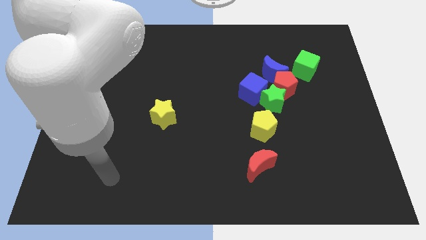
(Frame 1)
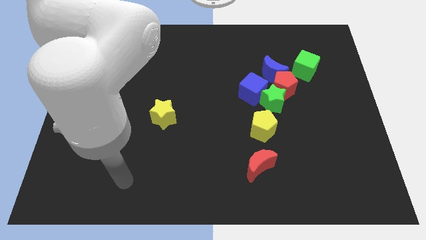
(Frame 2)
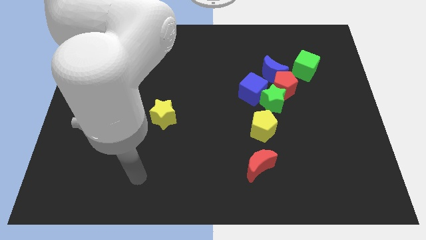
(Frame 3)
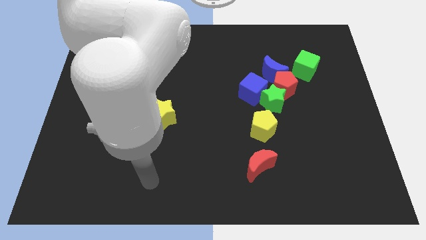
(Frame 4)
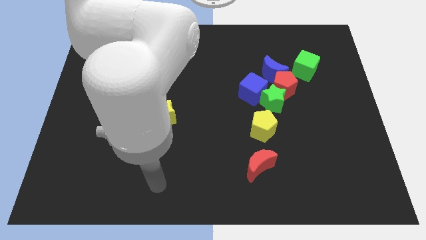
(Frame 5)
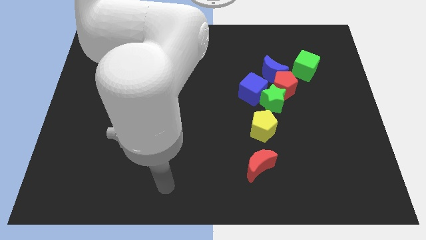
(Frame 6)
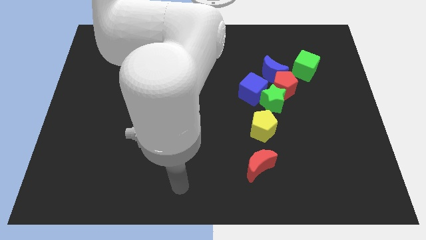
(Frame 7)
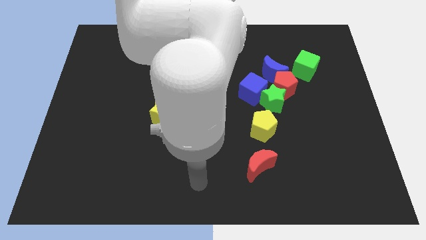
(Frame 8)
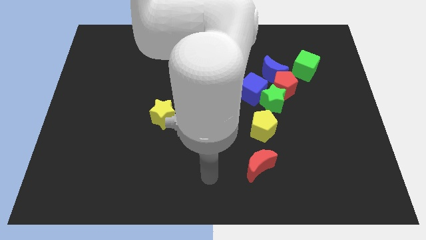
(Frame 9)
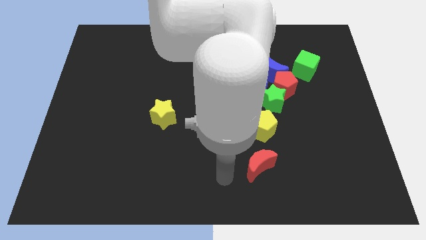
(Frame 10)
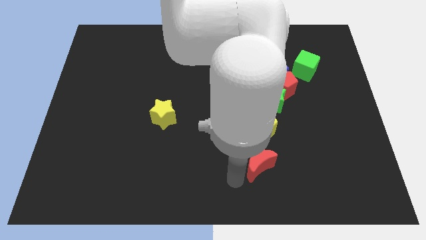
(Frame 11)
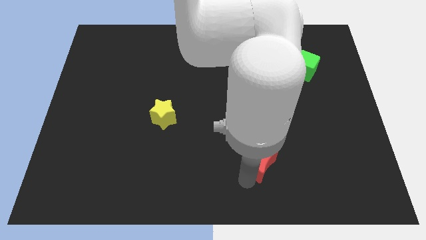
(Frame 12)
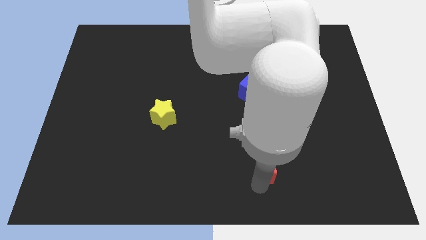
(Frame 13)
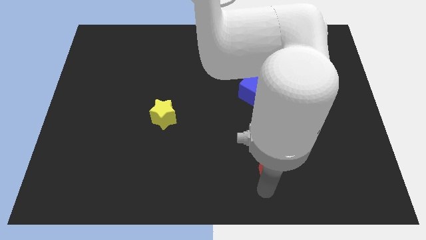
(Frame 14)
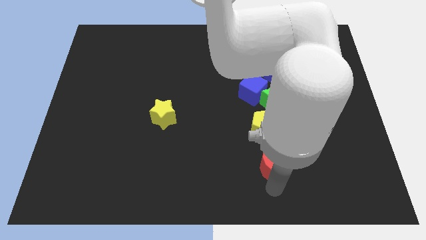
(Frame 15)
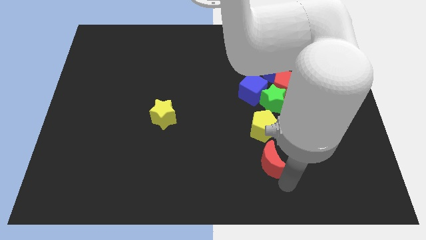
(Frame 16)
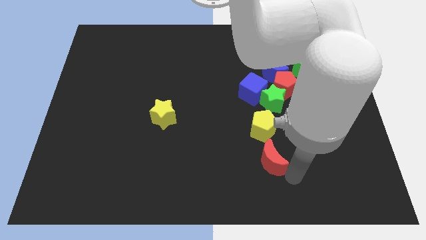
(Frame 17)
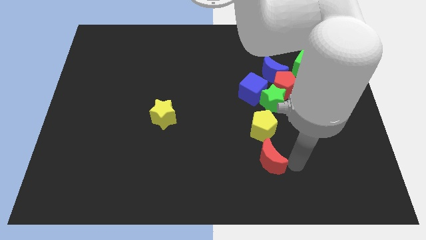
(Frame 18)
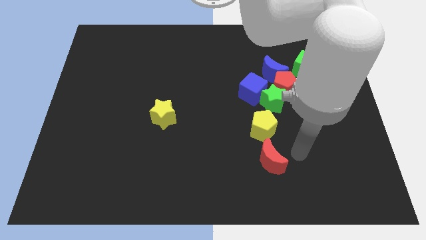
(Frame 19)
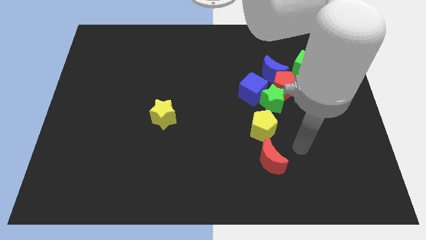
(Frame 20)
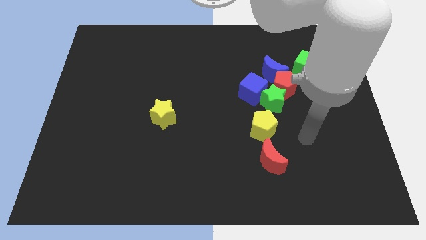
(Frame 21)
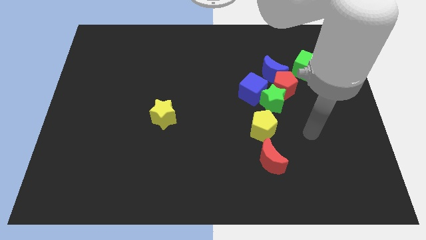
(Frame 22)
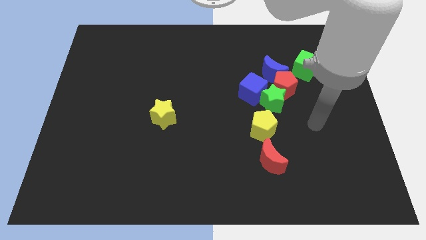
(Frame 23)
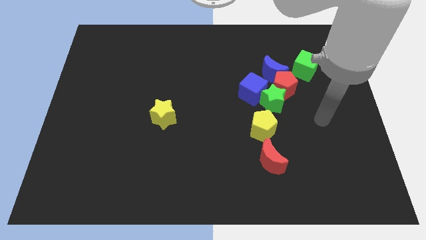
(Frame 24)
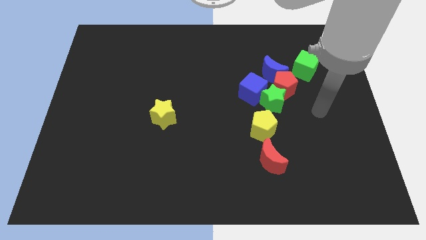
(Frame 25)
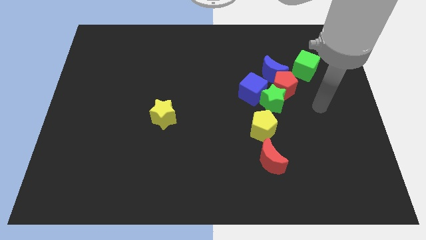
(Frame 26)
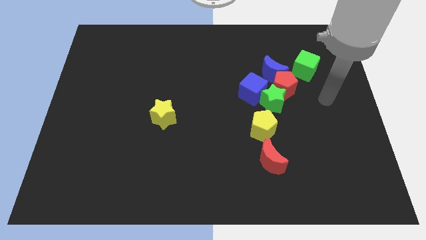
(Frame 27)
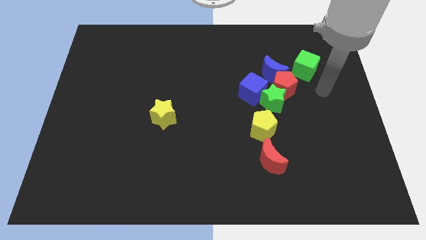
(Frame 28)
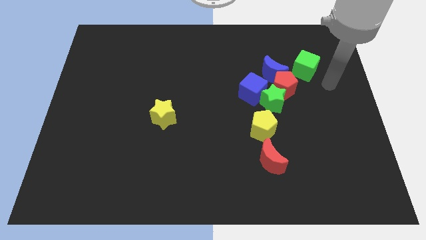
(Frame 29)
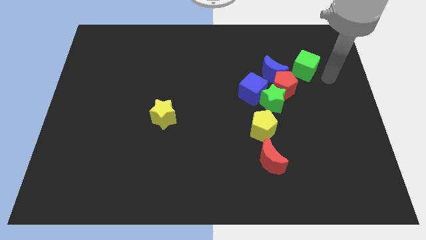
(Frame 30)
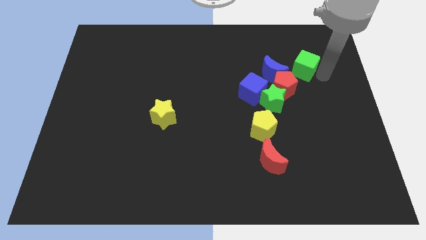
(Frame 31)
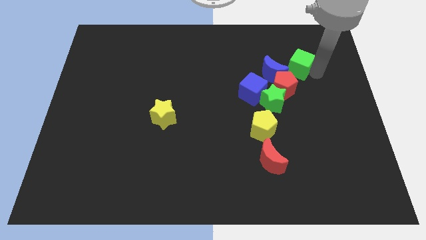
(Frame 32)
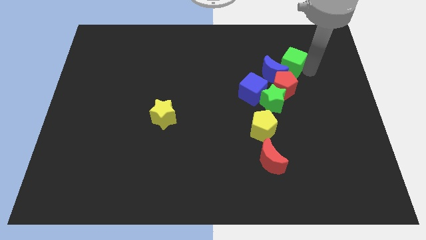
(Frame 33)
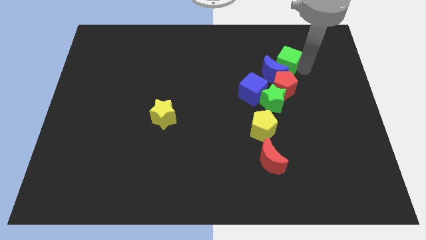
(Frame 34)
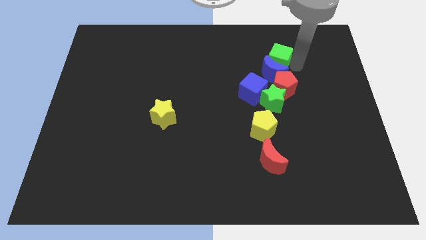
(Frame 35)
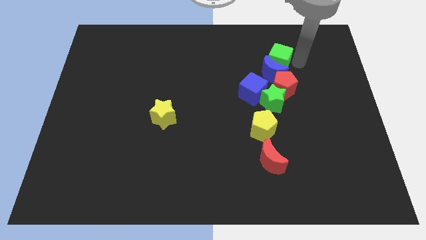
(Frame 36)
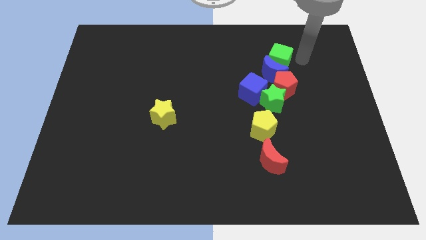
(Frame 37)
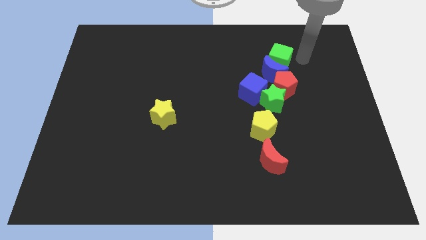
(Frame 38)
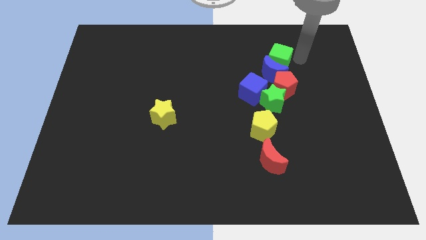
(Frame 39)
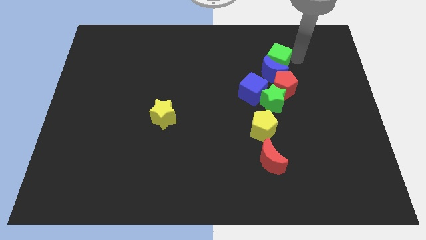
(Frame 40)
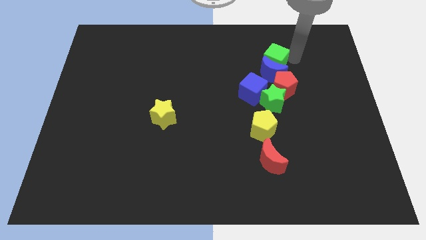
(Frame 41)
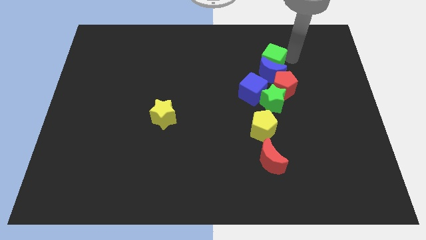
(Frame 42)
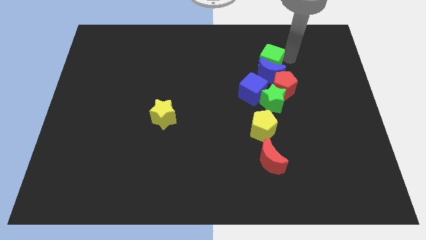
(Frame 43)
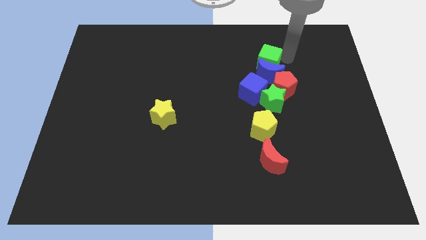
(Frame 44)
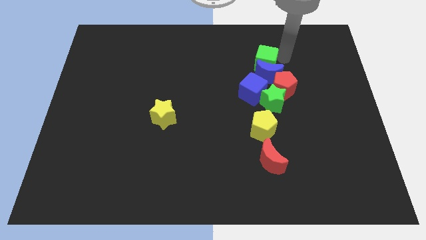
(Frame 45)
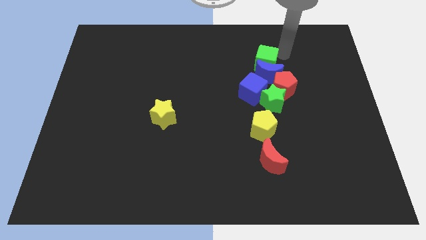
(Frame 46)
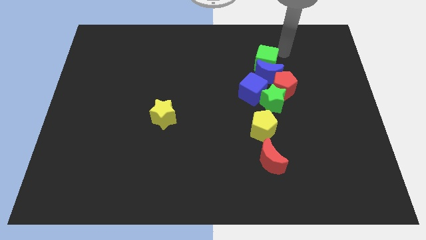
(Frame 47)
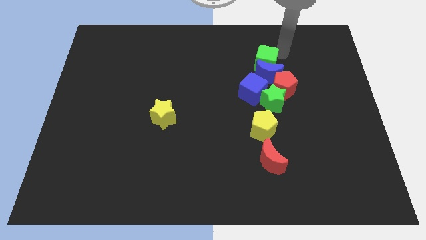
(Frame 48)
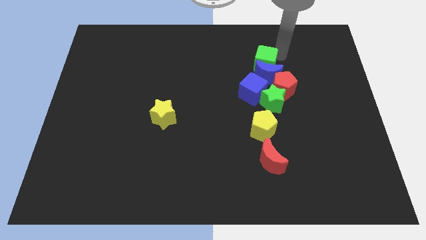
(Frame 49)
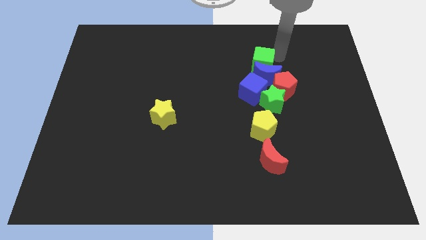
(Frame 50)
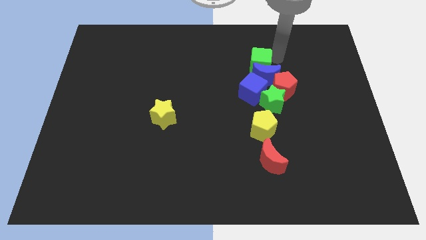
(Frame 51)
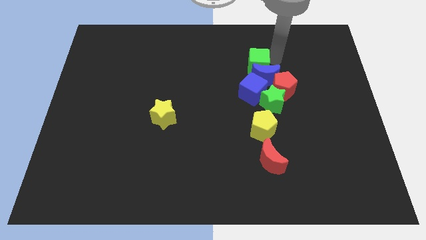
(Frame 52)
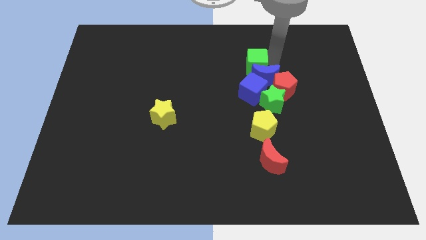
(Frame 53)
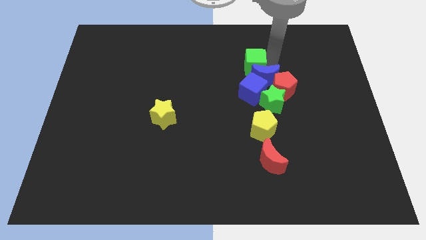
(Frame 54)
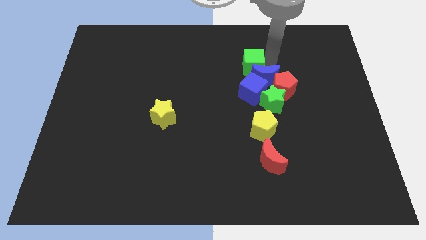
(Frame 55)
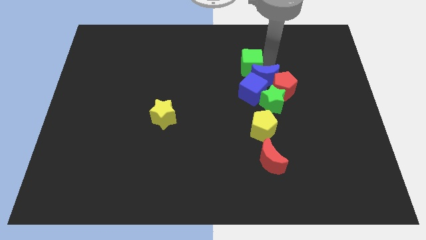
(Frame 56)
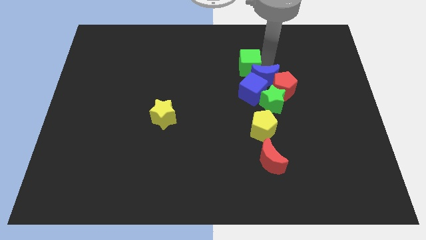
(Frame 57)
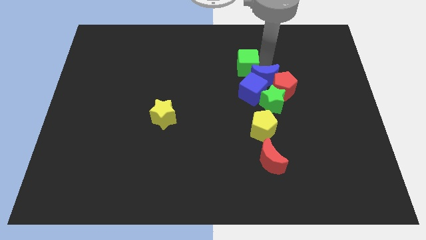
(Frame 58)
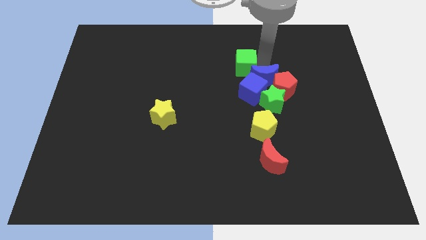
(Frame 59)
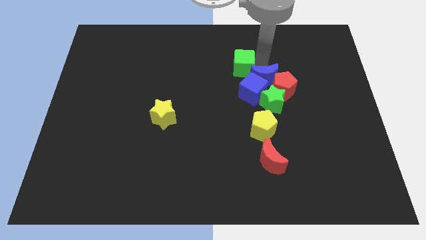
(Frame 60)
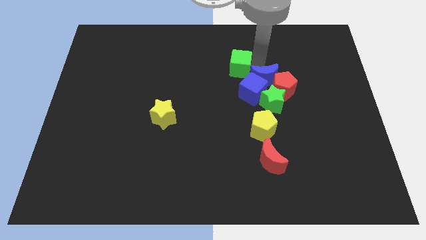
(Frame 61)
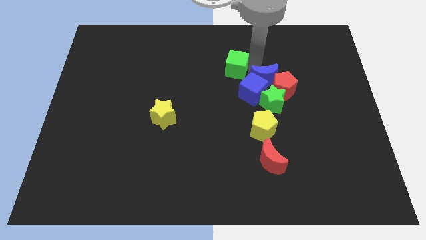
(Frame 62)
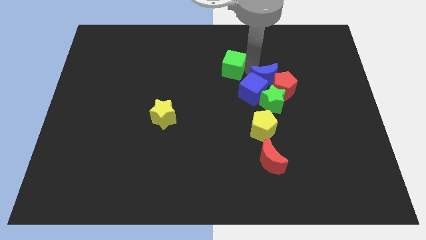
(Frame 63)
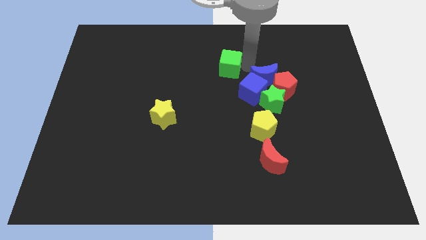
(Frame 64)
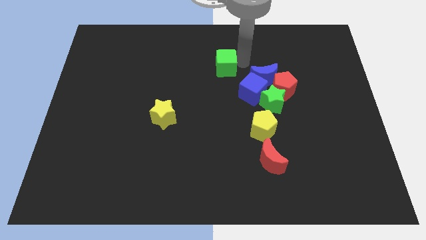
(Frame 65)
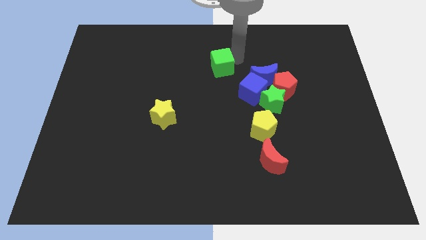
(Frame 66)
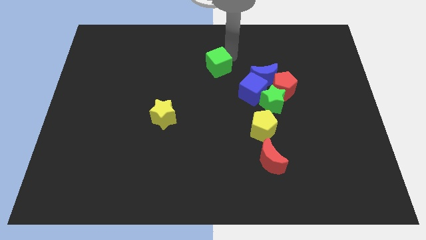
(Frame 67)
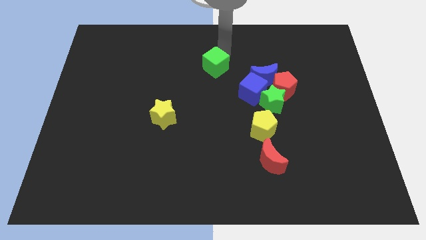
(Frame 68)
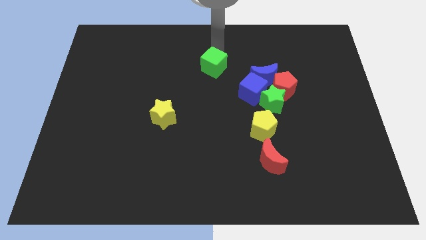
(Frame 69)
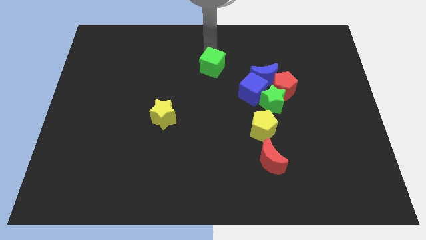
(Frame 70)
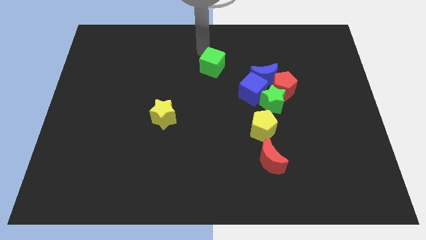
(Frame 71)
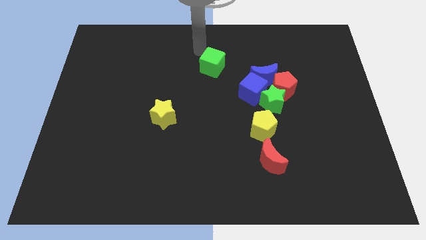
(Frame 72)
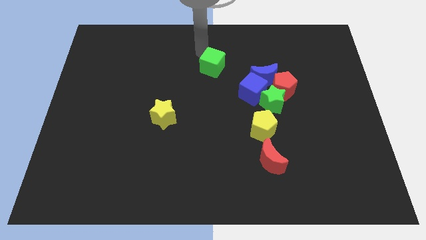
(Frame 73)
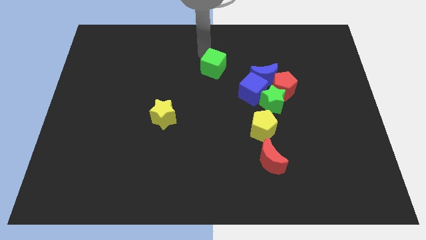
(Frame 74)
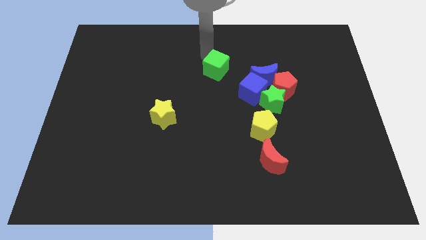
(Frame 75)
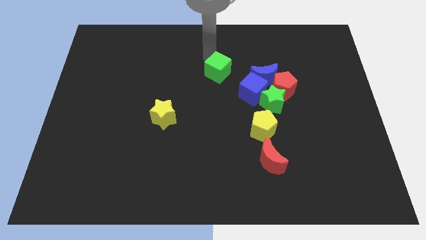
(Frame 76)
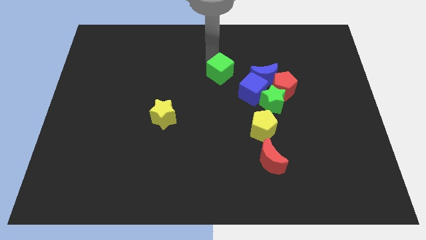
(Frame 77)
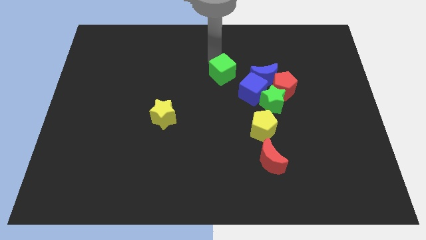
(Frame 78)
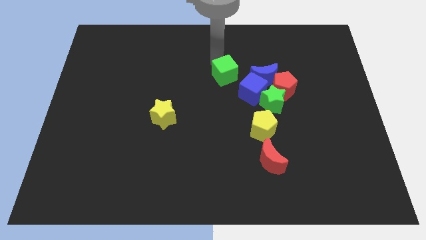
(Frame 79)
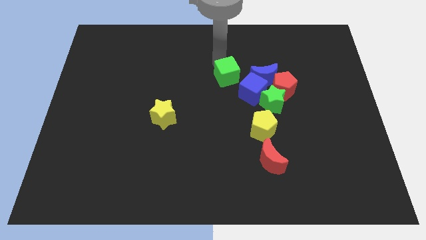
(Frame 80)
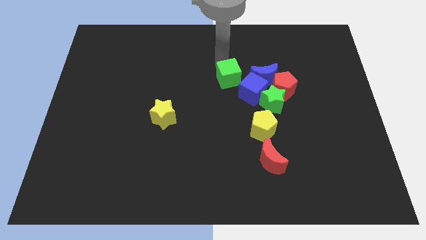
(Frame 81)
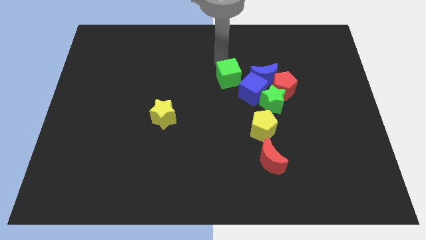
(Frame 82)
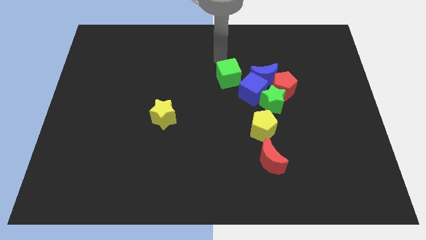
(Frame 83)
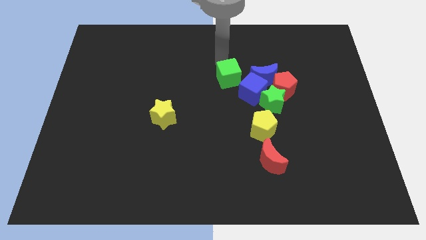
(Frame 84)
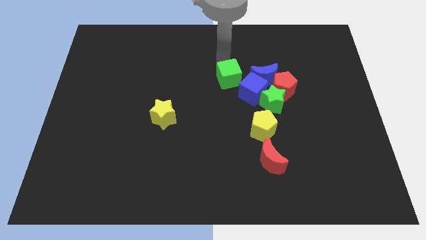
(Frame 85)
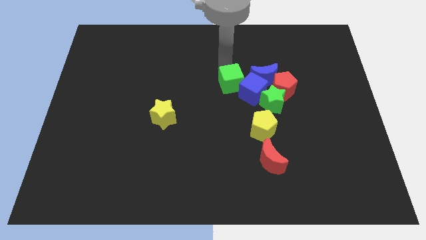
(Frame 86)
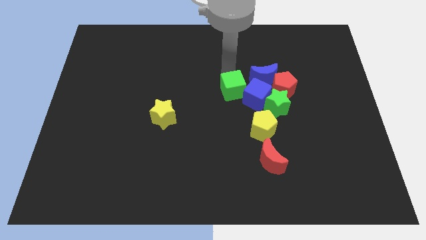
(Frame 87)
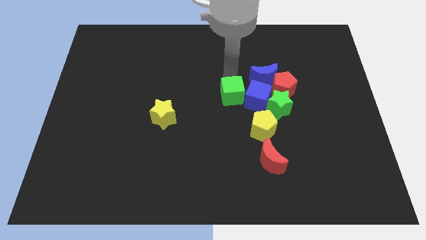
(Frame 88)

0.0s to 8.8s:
move the green cube diagonally up and to the left of the yellow pentagon
